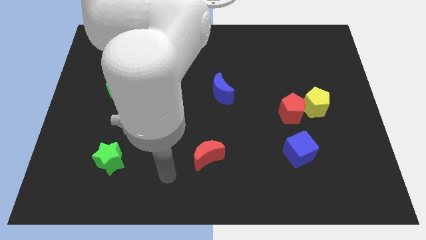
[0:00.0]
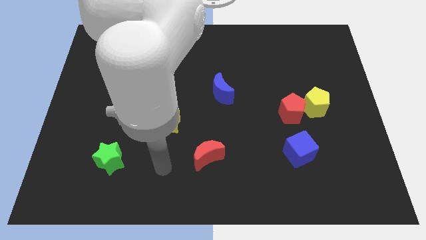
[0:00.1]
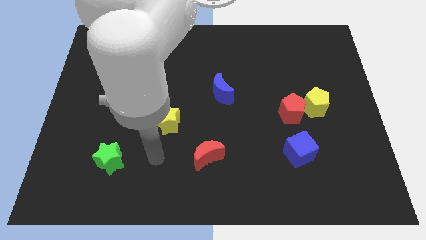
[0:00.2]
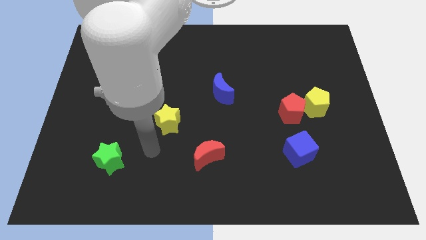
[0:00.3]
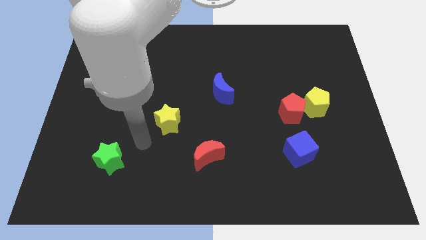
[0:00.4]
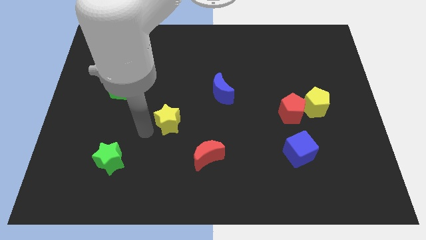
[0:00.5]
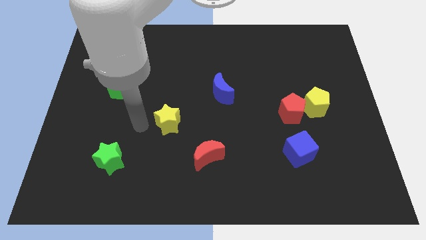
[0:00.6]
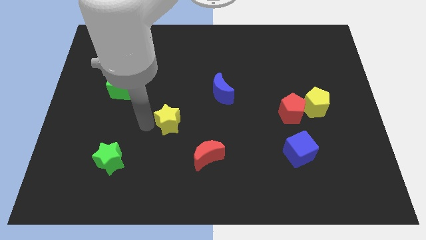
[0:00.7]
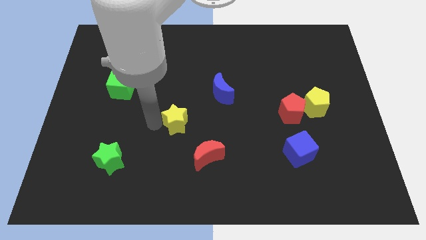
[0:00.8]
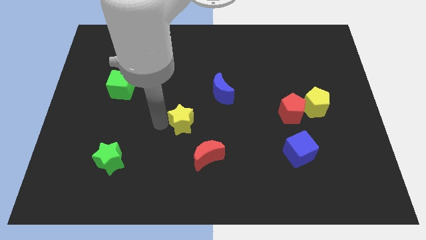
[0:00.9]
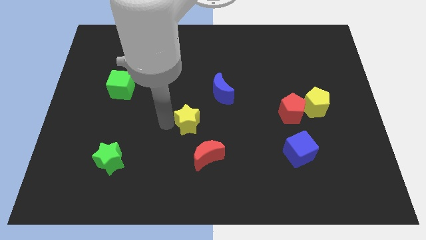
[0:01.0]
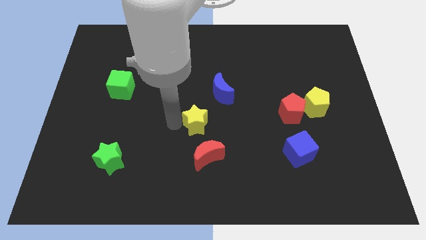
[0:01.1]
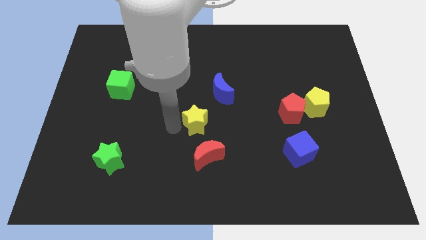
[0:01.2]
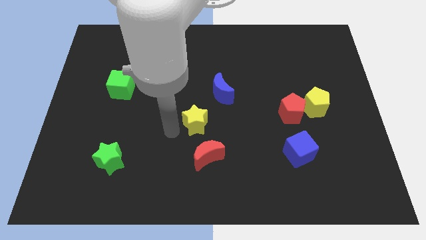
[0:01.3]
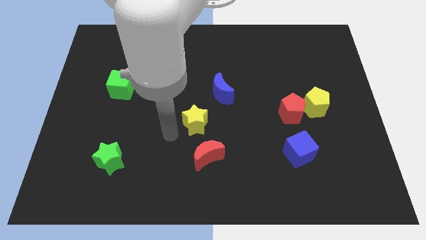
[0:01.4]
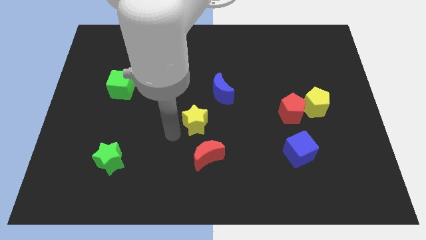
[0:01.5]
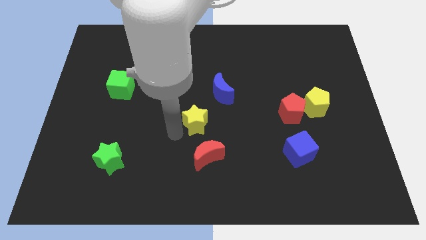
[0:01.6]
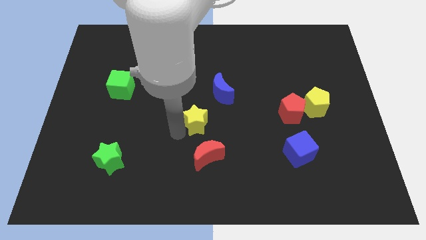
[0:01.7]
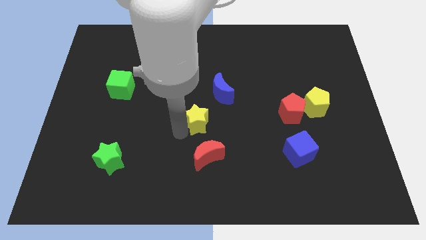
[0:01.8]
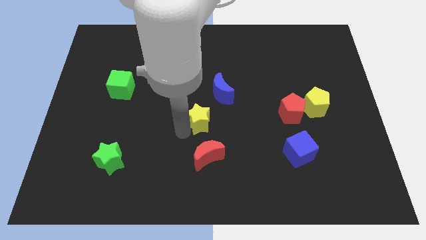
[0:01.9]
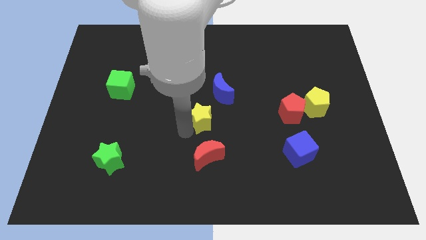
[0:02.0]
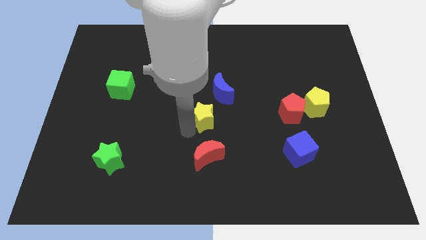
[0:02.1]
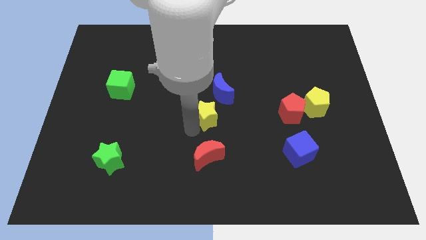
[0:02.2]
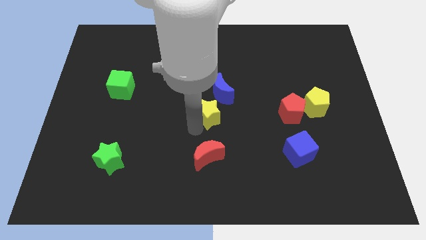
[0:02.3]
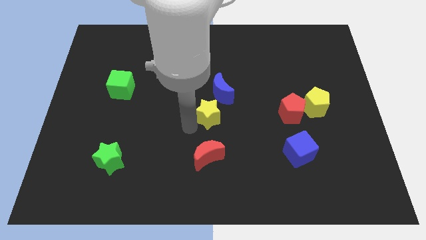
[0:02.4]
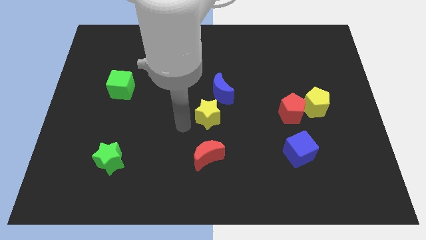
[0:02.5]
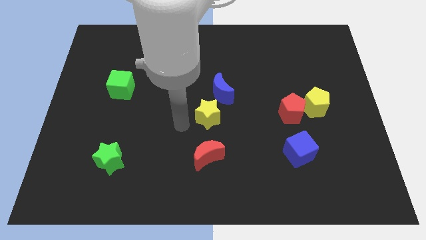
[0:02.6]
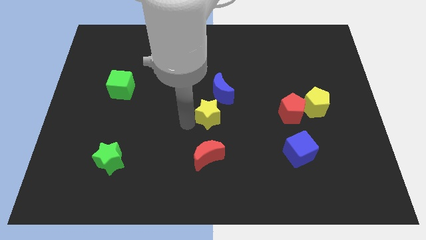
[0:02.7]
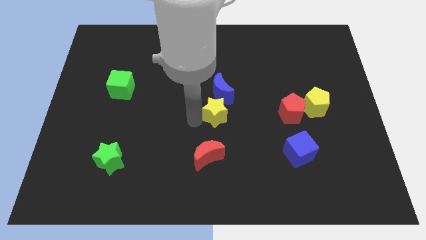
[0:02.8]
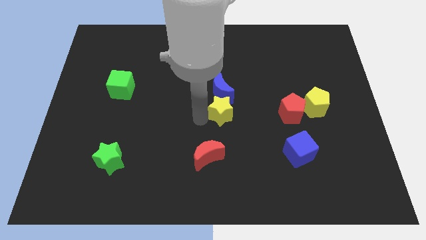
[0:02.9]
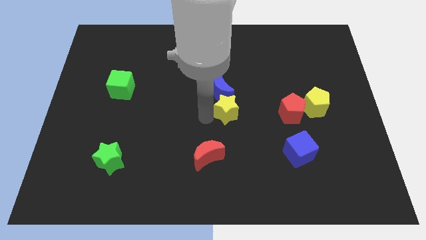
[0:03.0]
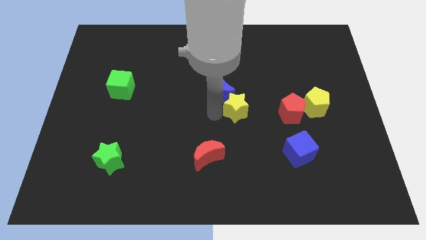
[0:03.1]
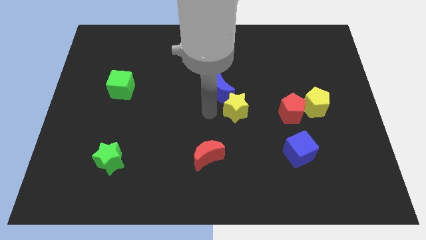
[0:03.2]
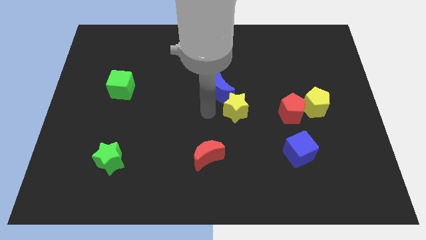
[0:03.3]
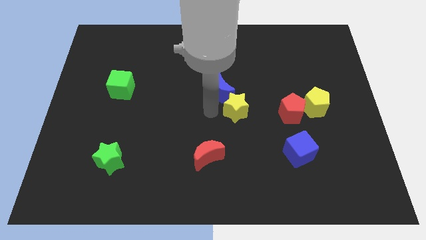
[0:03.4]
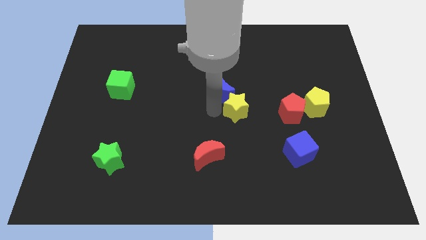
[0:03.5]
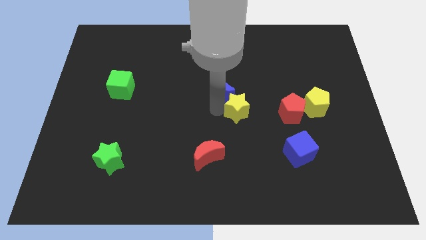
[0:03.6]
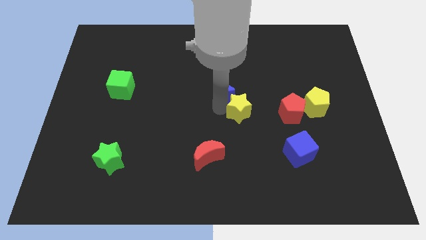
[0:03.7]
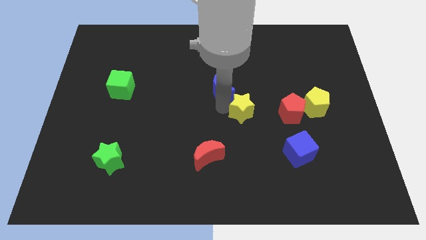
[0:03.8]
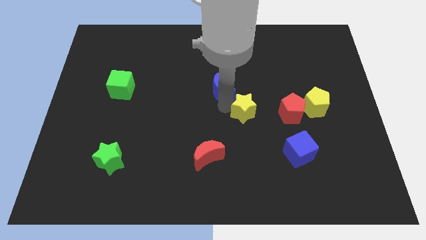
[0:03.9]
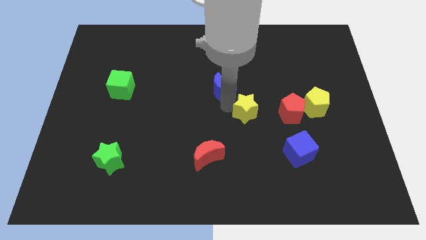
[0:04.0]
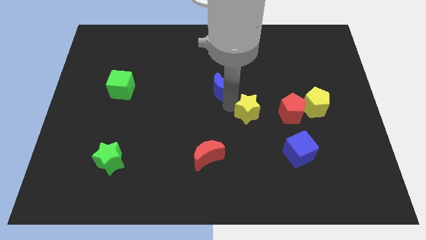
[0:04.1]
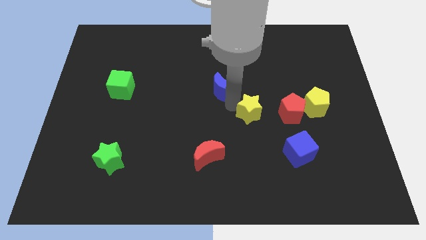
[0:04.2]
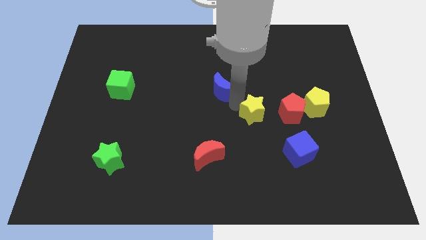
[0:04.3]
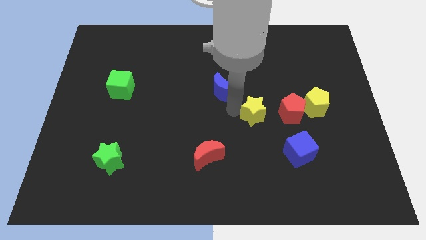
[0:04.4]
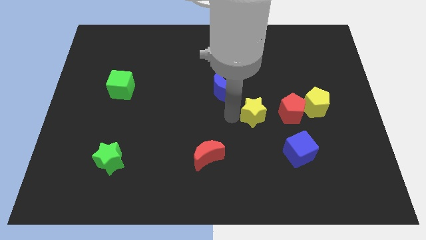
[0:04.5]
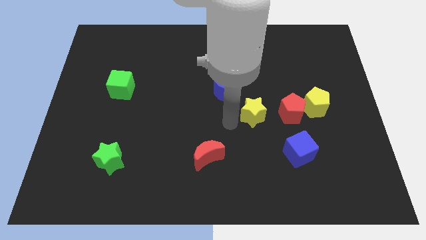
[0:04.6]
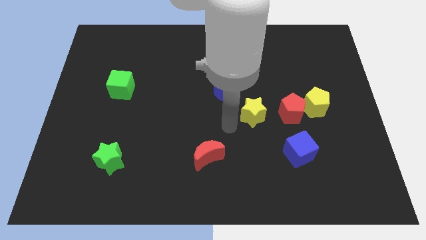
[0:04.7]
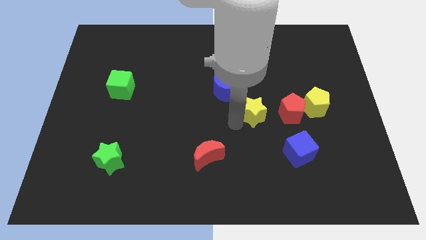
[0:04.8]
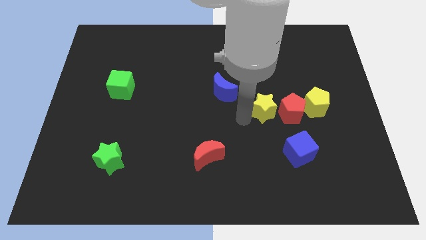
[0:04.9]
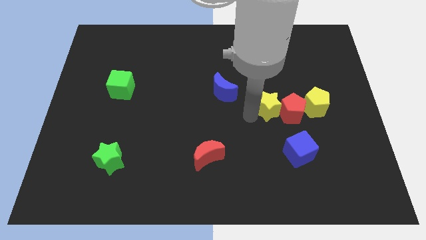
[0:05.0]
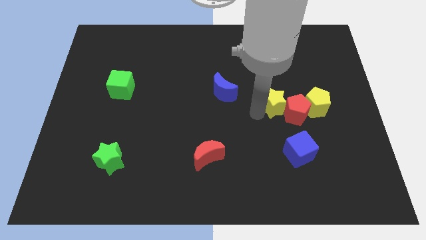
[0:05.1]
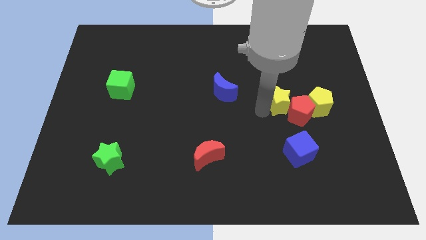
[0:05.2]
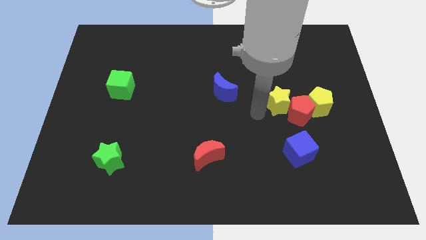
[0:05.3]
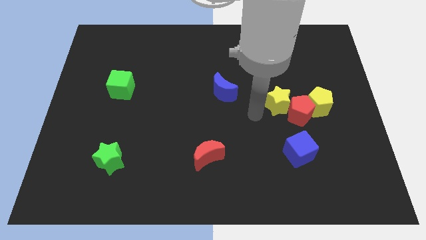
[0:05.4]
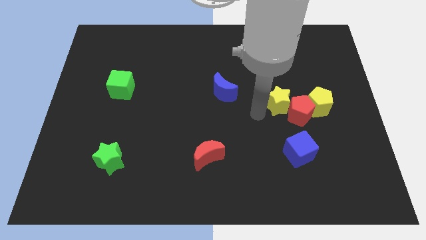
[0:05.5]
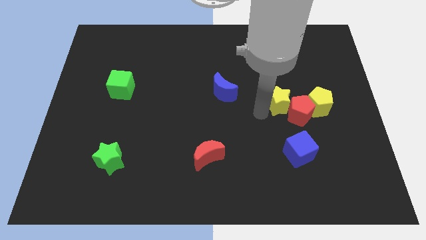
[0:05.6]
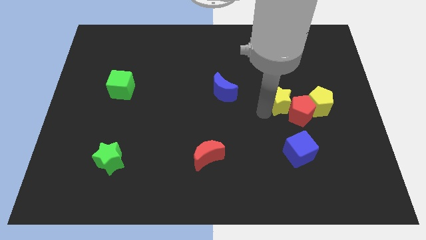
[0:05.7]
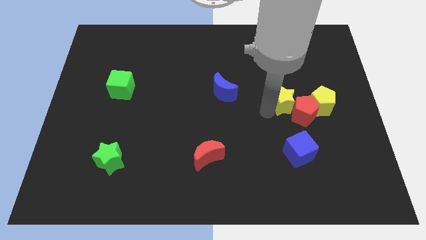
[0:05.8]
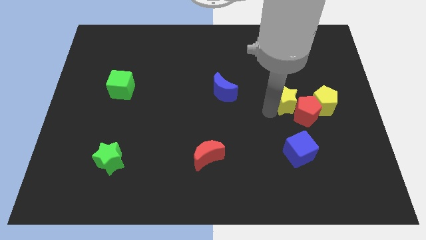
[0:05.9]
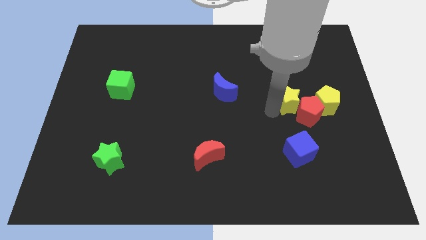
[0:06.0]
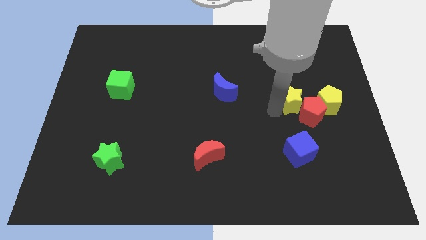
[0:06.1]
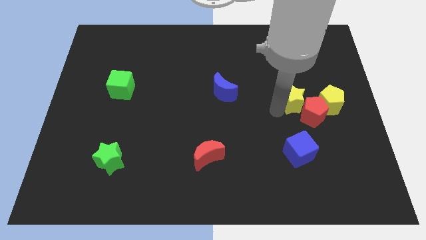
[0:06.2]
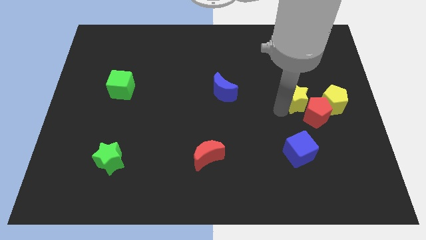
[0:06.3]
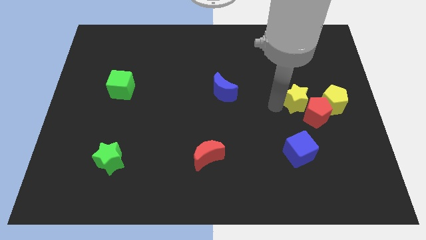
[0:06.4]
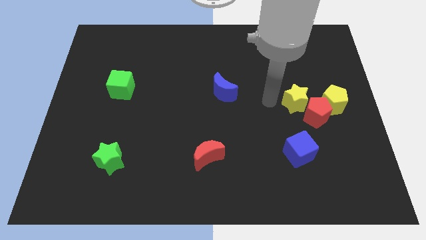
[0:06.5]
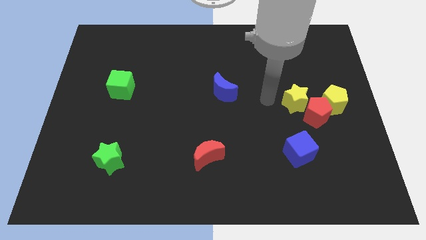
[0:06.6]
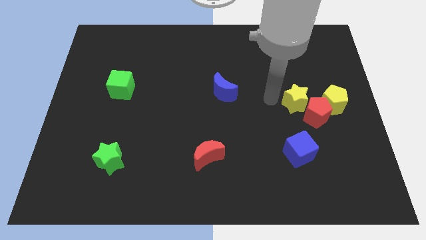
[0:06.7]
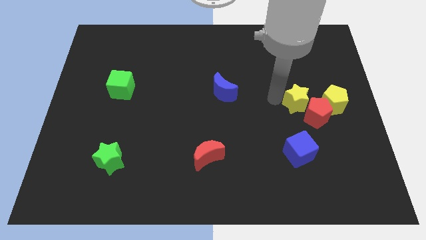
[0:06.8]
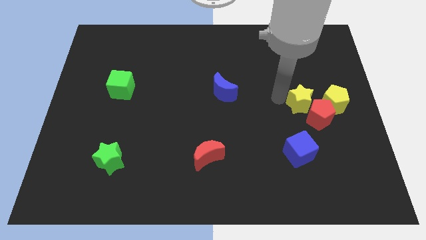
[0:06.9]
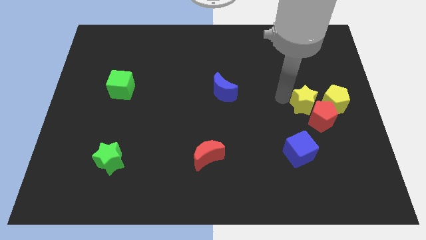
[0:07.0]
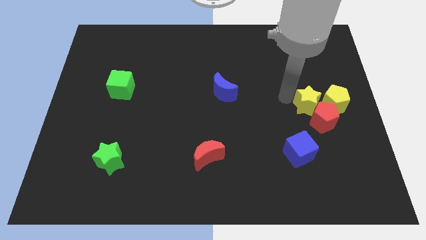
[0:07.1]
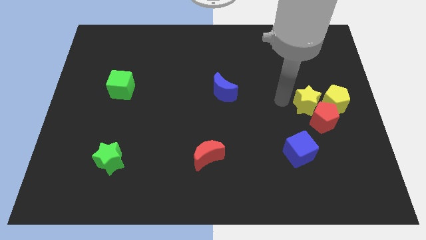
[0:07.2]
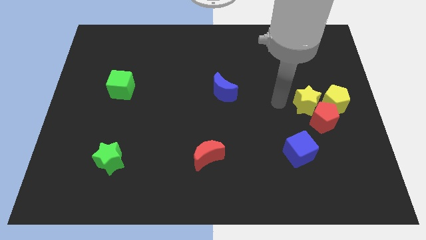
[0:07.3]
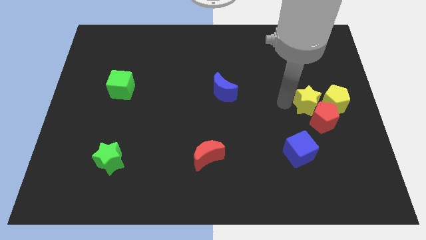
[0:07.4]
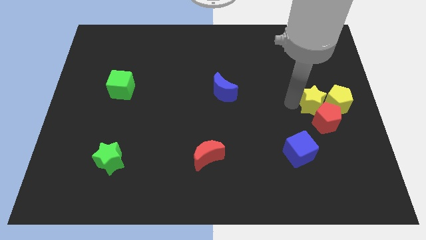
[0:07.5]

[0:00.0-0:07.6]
put the yellow star next to the yellow pentagon
